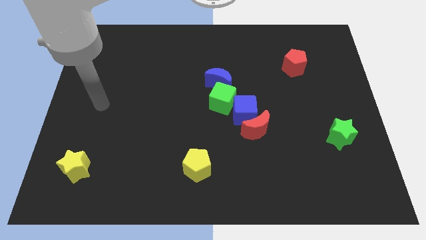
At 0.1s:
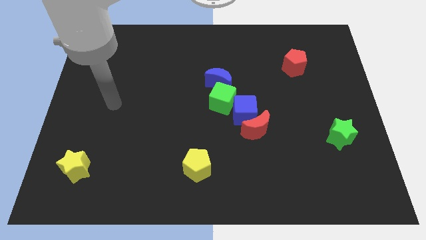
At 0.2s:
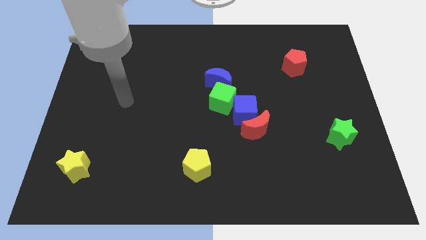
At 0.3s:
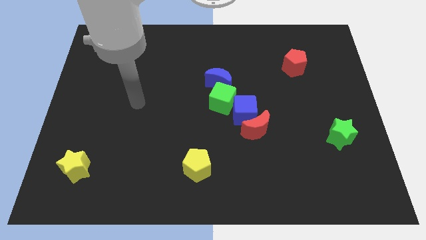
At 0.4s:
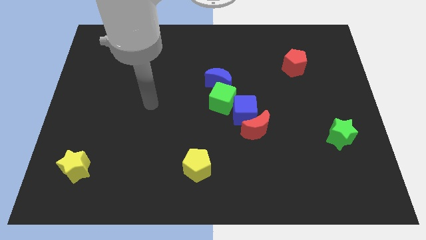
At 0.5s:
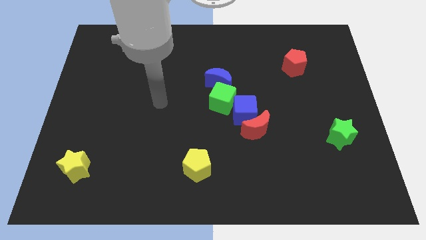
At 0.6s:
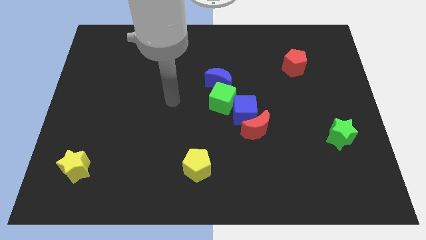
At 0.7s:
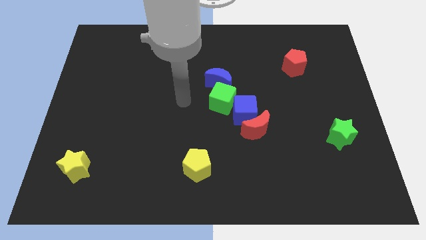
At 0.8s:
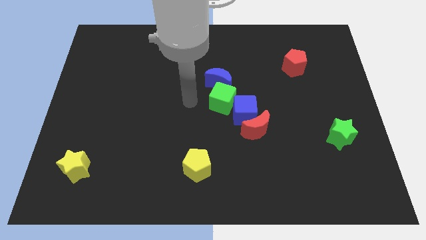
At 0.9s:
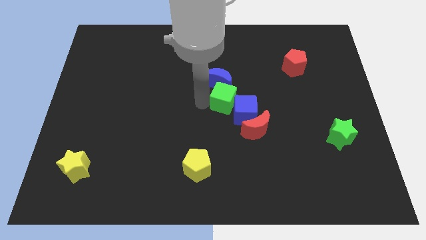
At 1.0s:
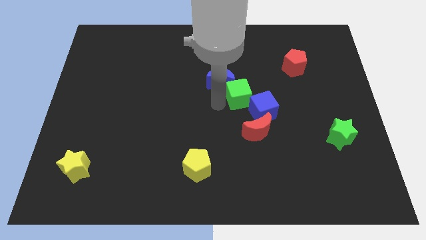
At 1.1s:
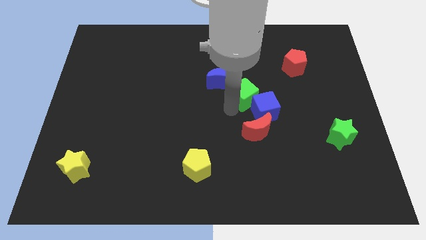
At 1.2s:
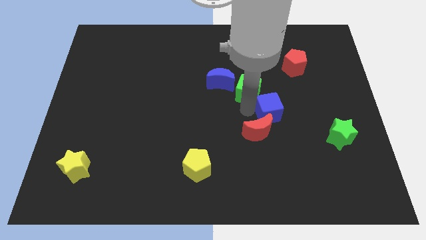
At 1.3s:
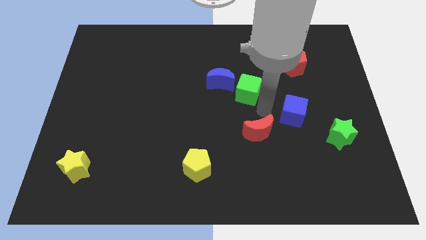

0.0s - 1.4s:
separate the red moon from the blue cube

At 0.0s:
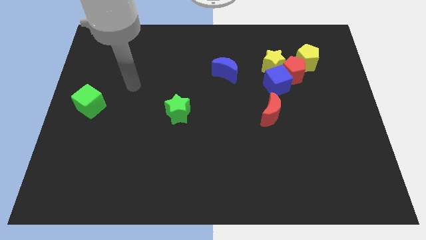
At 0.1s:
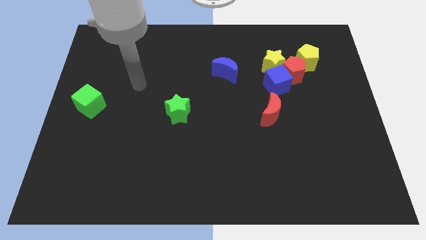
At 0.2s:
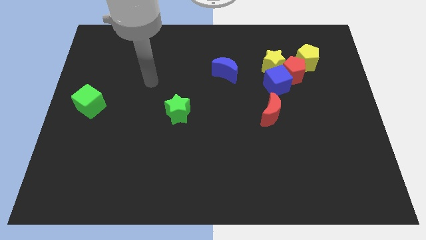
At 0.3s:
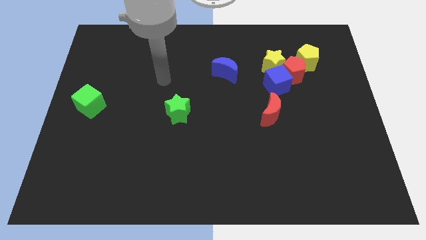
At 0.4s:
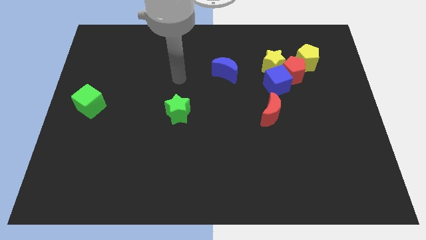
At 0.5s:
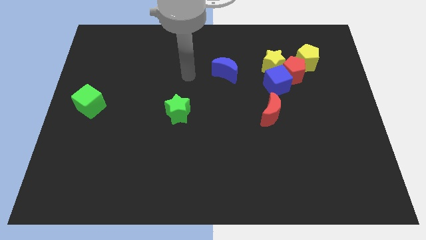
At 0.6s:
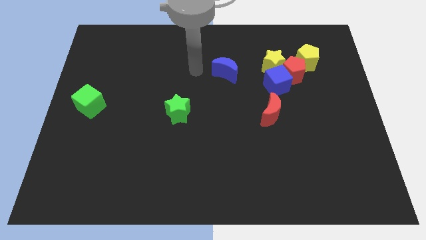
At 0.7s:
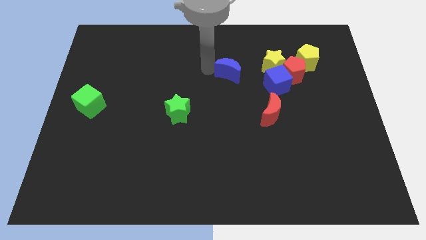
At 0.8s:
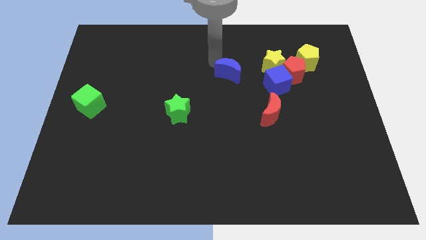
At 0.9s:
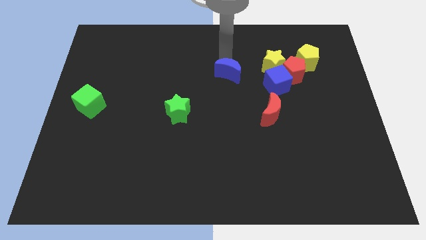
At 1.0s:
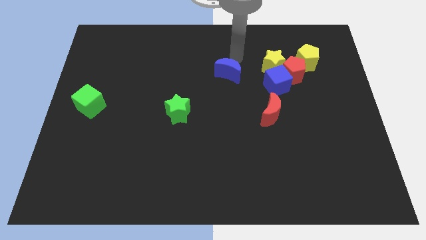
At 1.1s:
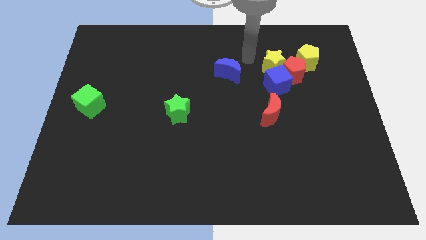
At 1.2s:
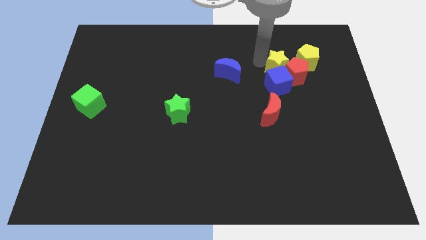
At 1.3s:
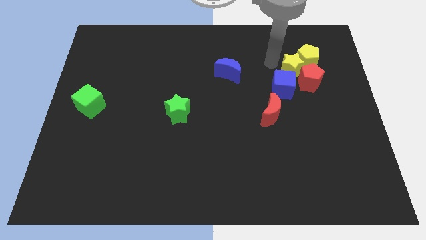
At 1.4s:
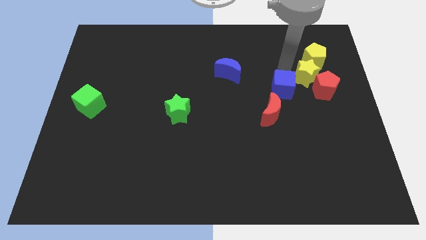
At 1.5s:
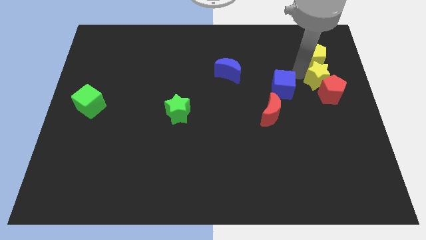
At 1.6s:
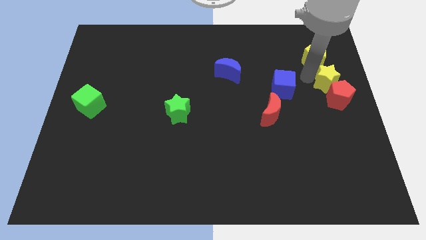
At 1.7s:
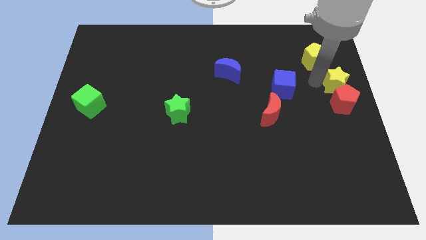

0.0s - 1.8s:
move the red pentagon away from the group

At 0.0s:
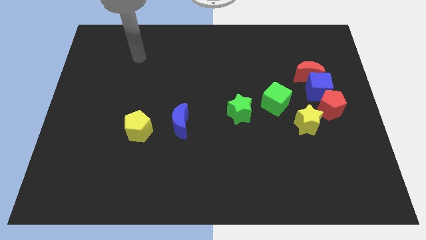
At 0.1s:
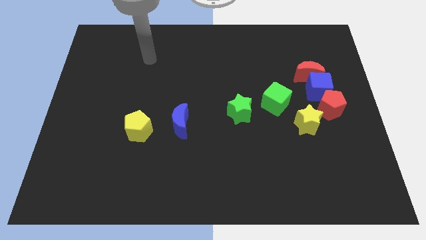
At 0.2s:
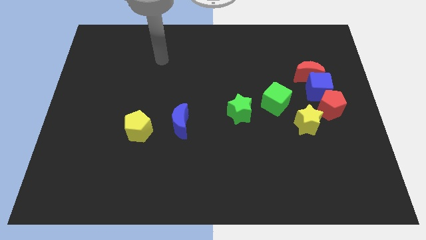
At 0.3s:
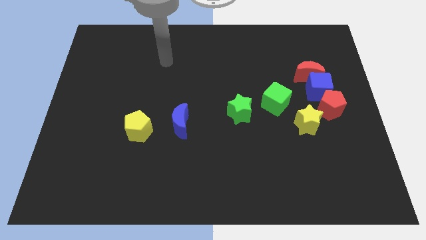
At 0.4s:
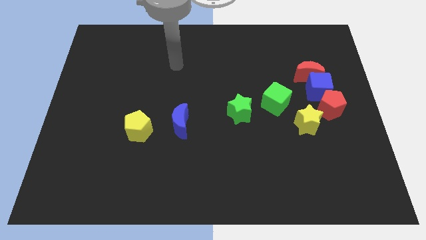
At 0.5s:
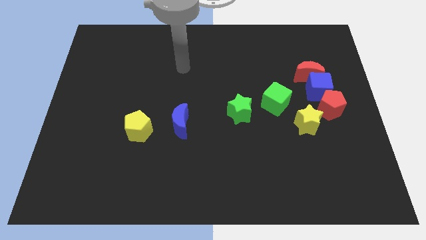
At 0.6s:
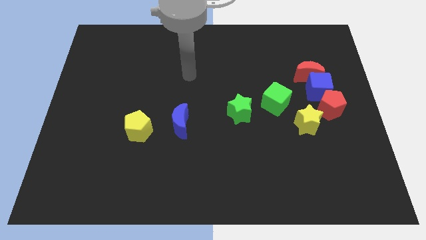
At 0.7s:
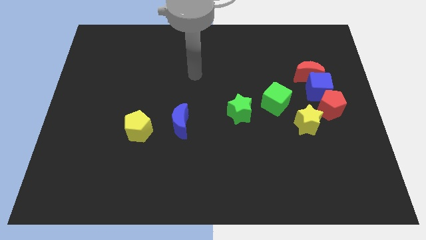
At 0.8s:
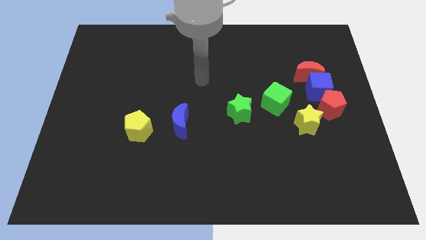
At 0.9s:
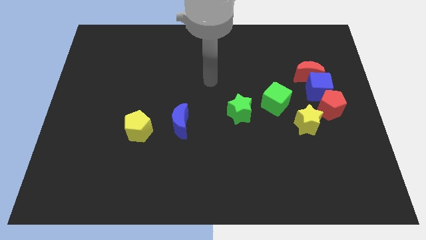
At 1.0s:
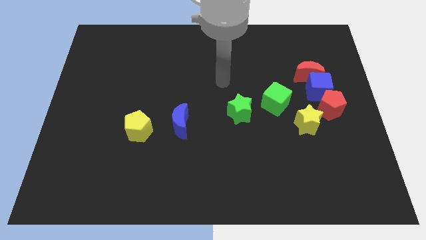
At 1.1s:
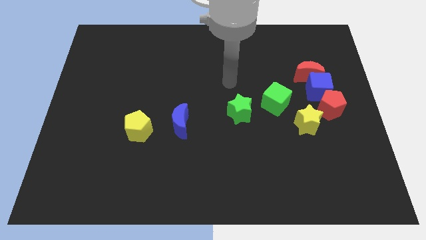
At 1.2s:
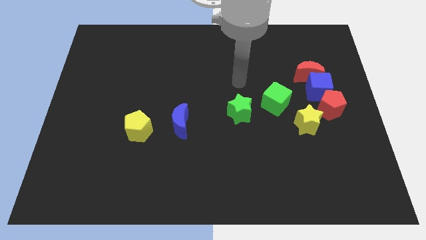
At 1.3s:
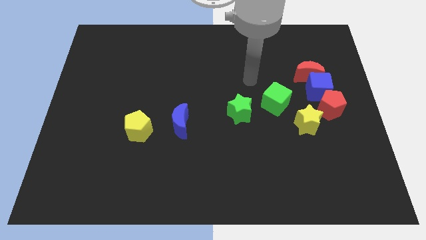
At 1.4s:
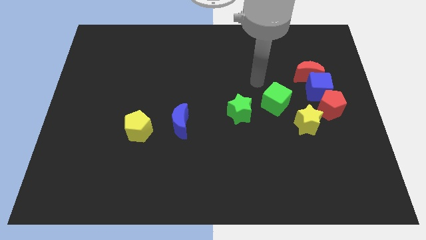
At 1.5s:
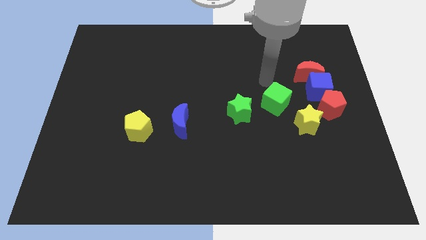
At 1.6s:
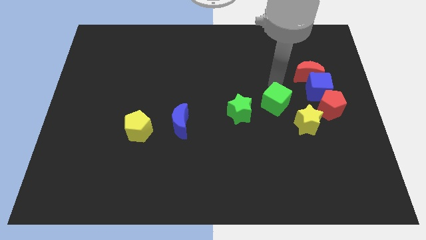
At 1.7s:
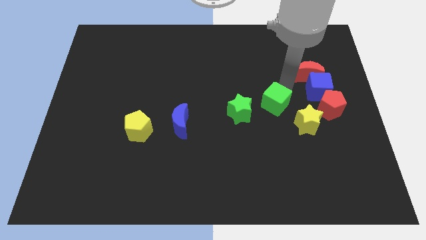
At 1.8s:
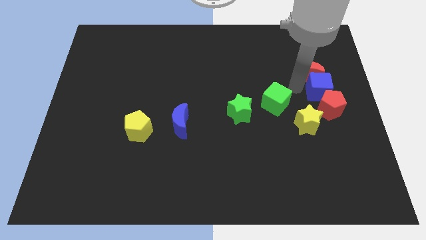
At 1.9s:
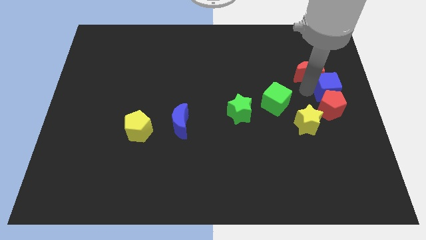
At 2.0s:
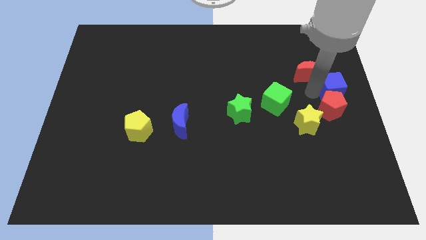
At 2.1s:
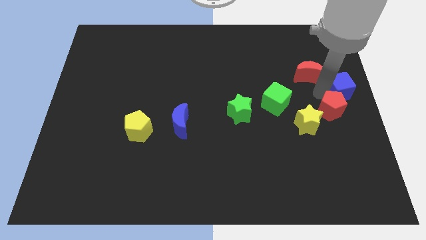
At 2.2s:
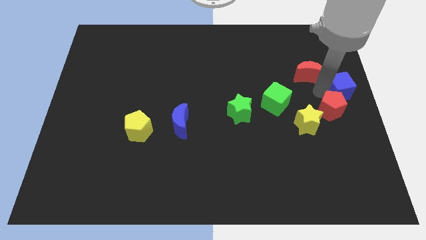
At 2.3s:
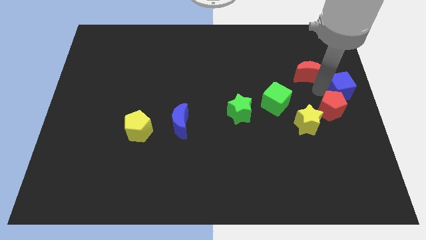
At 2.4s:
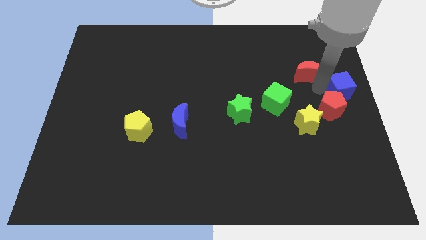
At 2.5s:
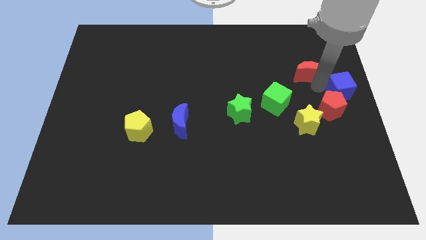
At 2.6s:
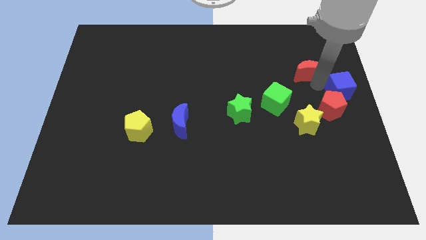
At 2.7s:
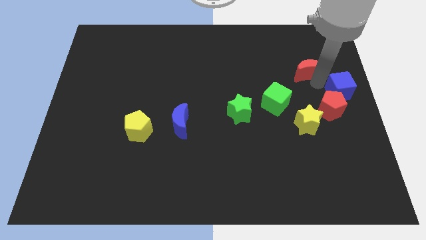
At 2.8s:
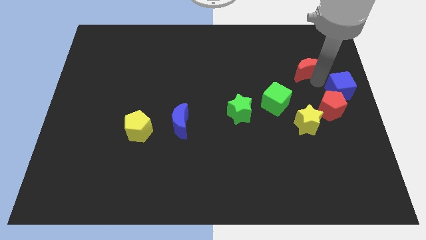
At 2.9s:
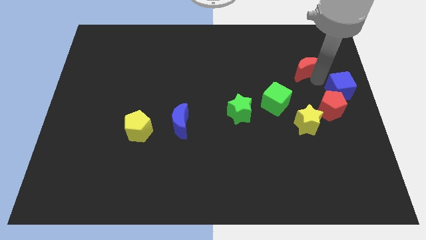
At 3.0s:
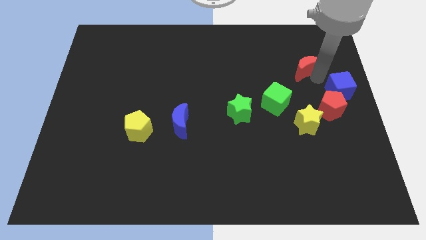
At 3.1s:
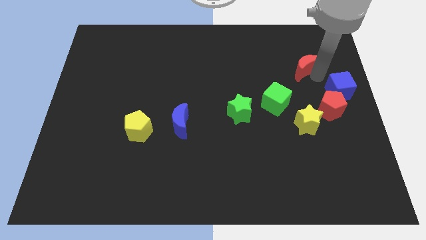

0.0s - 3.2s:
pull the red moon apart from the blue cube

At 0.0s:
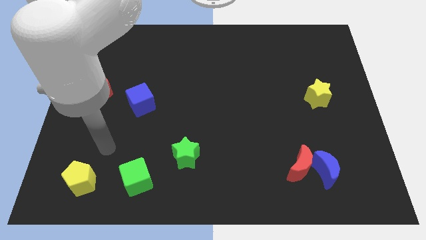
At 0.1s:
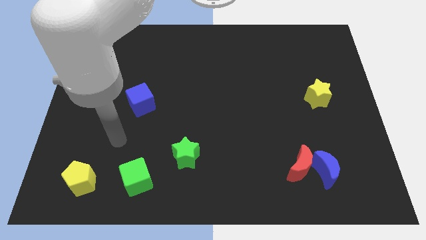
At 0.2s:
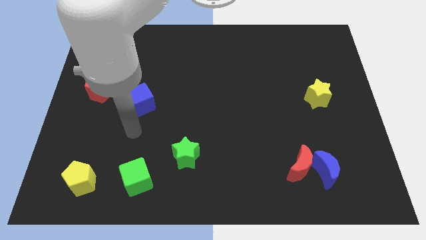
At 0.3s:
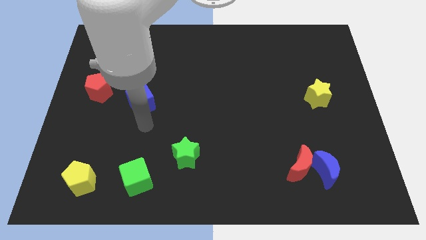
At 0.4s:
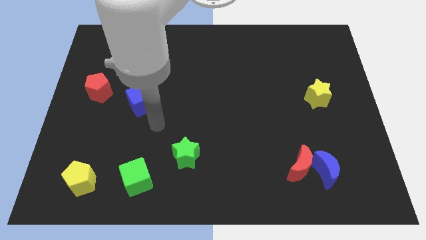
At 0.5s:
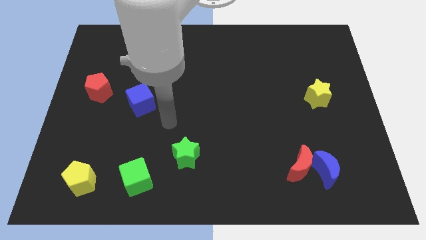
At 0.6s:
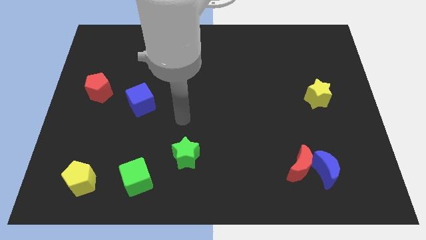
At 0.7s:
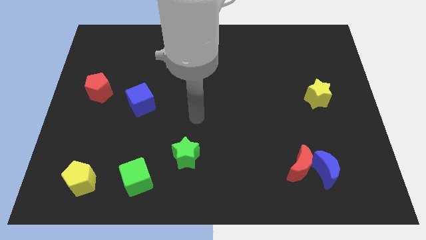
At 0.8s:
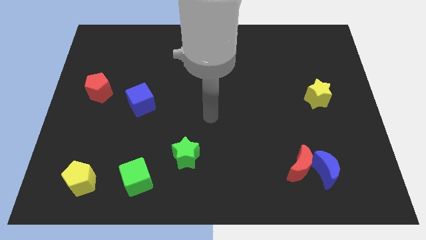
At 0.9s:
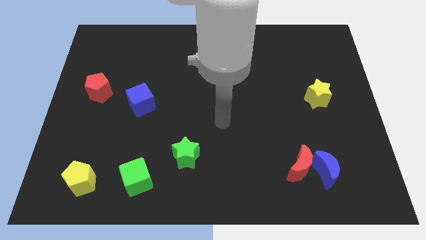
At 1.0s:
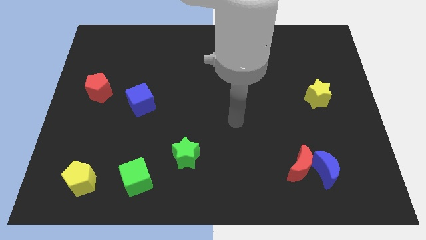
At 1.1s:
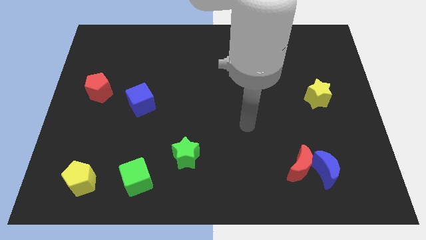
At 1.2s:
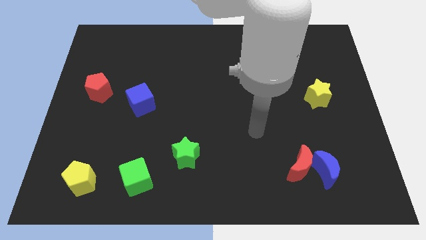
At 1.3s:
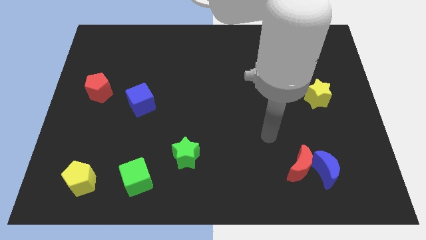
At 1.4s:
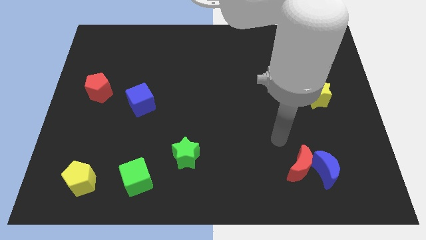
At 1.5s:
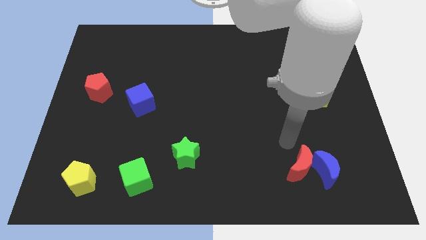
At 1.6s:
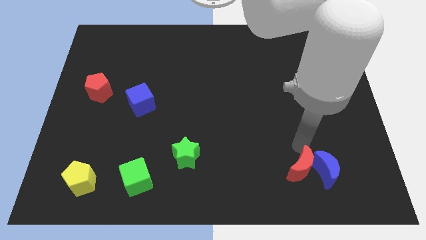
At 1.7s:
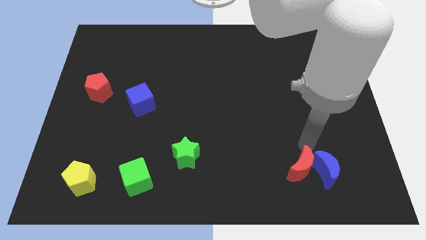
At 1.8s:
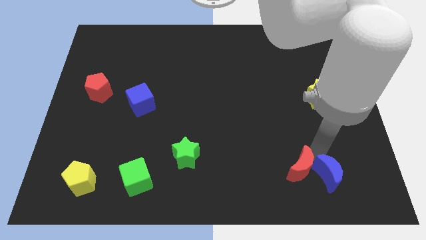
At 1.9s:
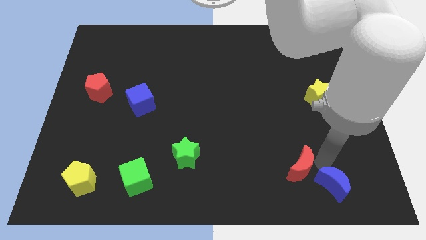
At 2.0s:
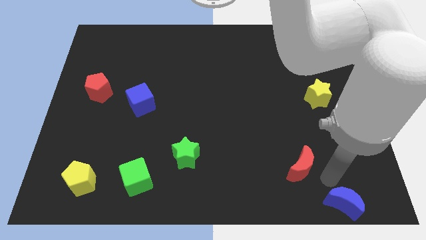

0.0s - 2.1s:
move the red moon away from the blue moon

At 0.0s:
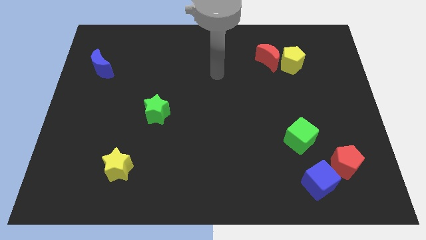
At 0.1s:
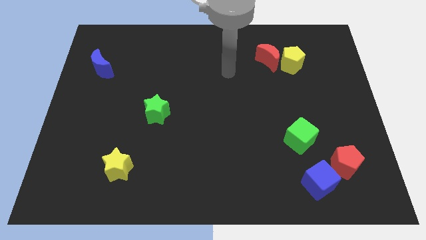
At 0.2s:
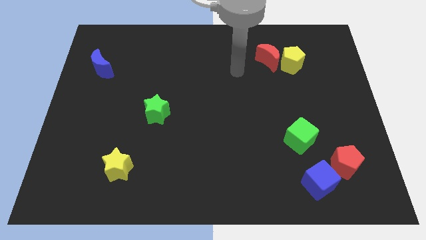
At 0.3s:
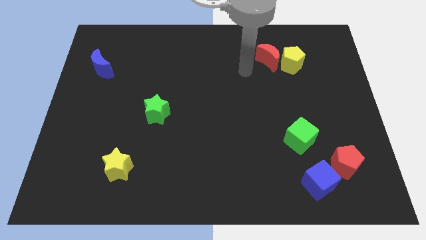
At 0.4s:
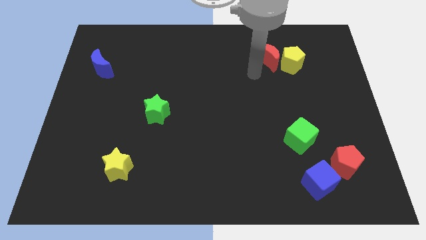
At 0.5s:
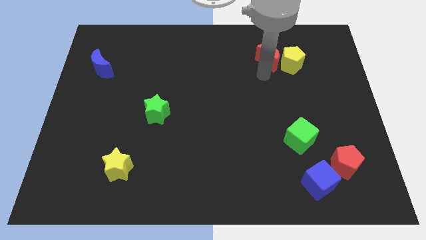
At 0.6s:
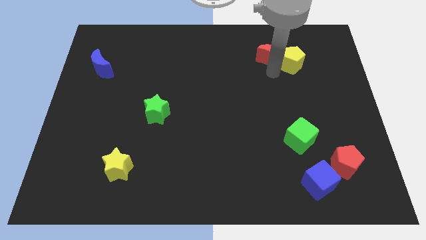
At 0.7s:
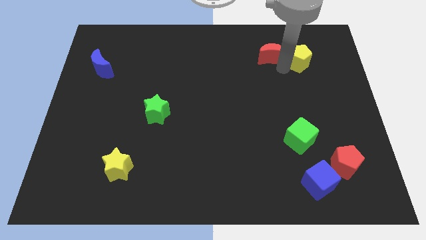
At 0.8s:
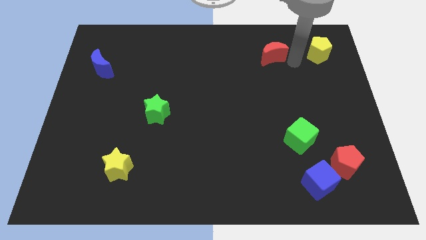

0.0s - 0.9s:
pull the red moon apart from the yellow pentagon
